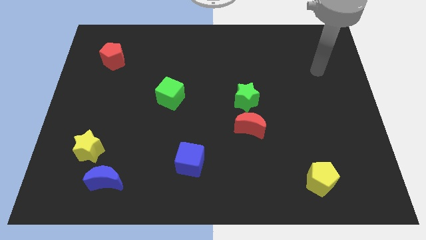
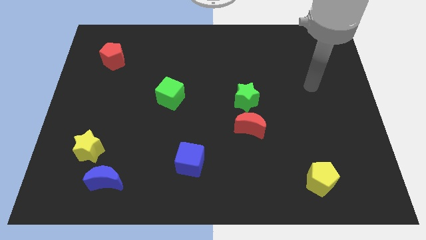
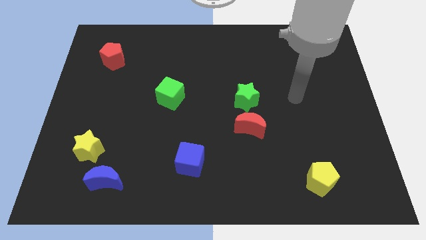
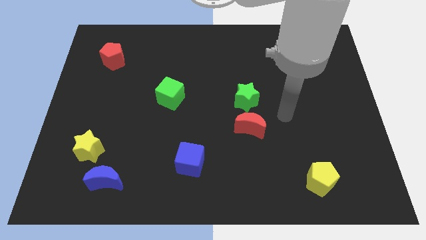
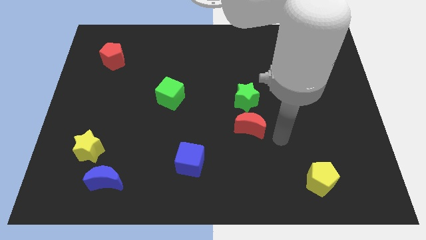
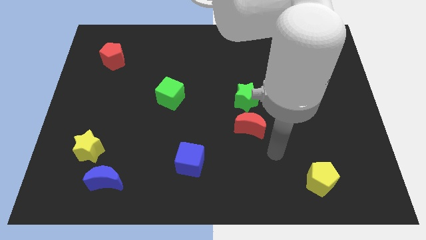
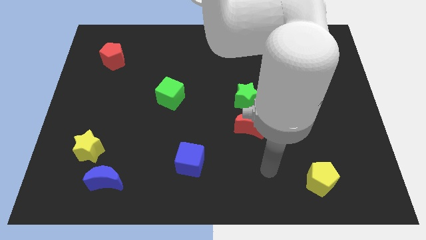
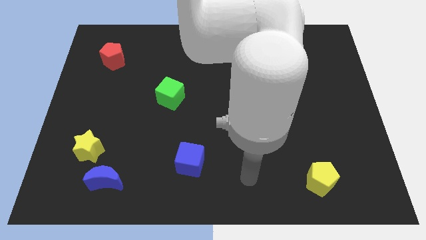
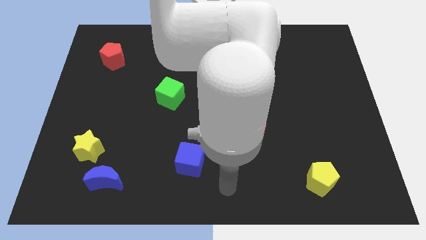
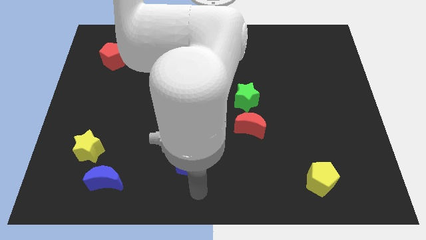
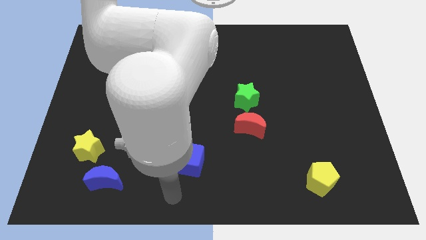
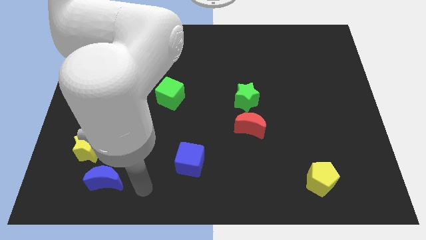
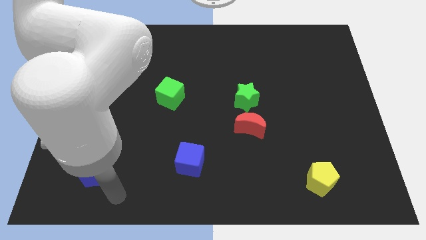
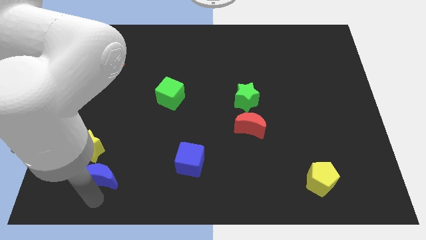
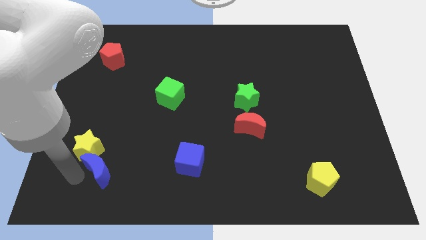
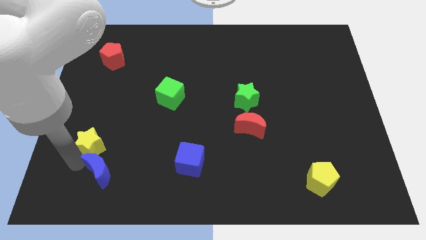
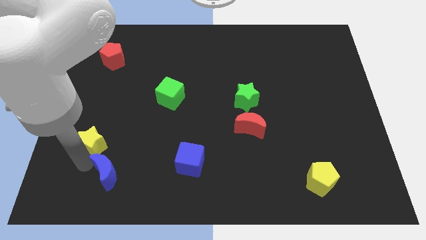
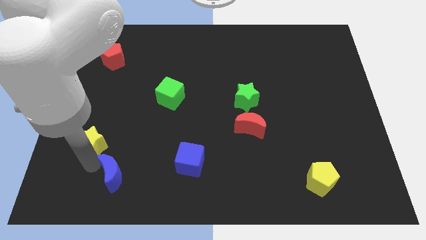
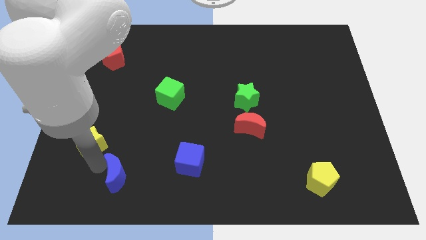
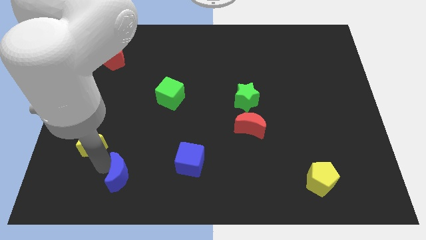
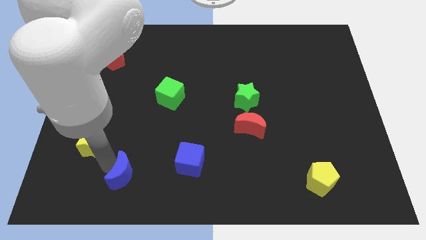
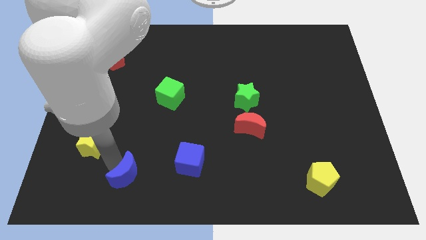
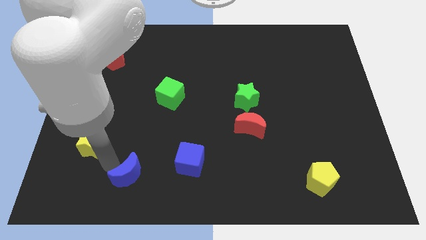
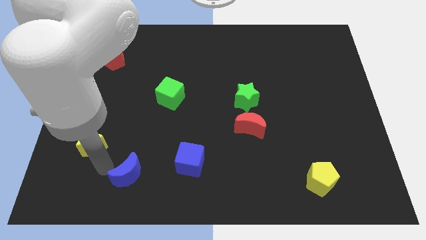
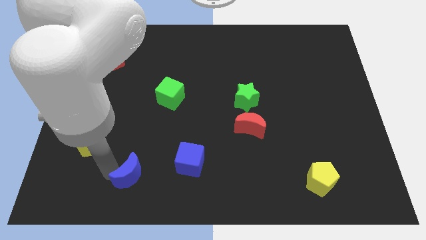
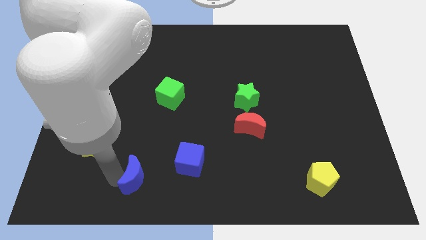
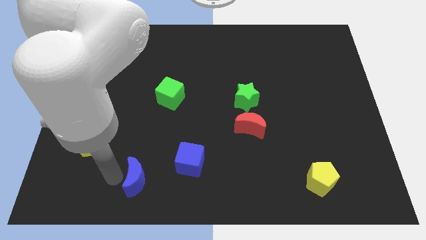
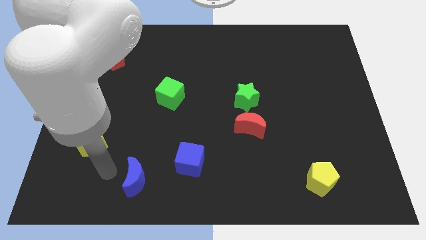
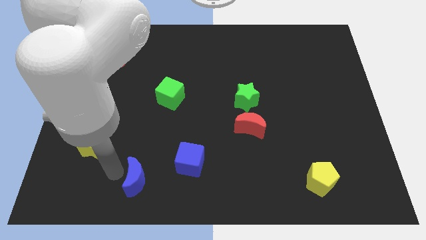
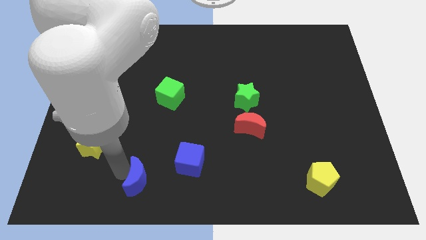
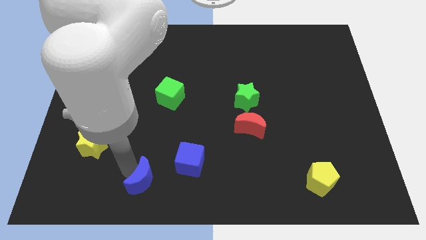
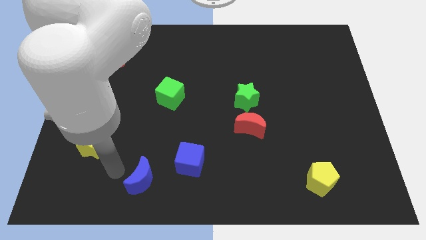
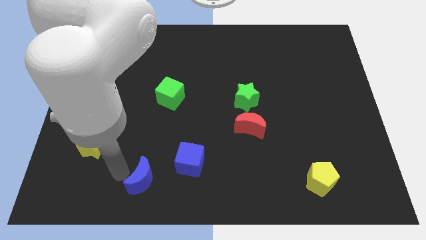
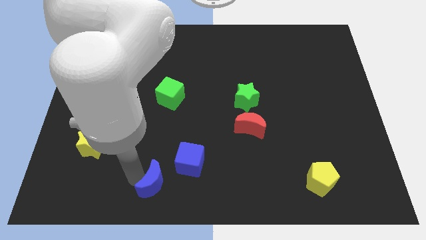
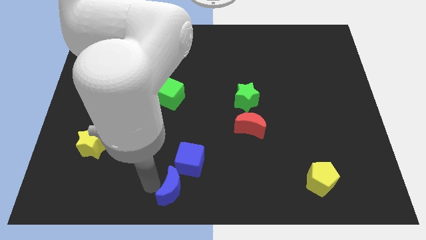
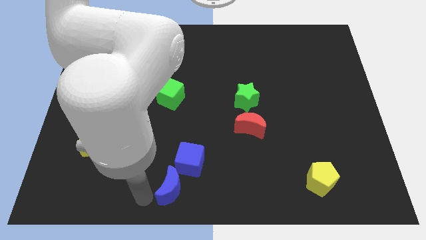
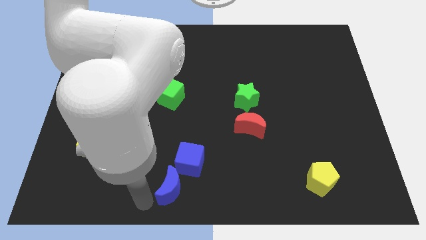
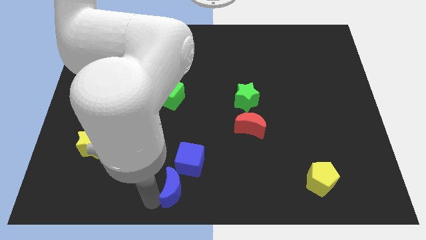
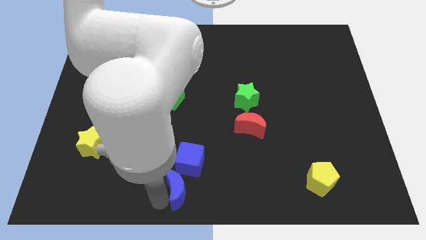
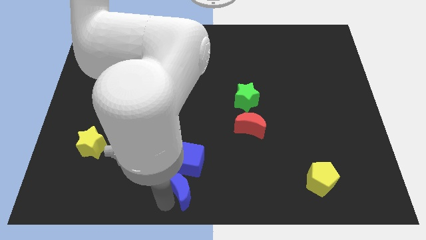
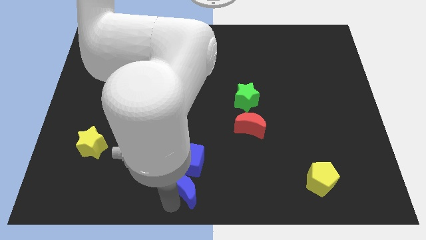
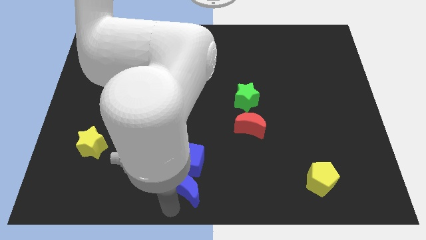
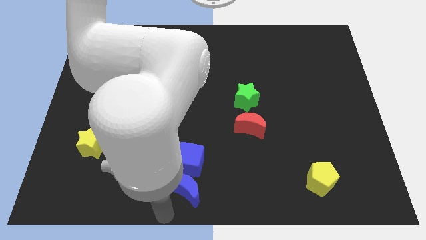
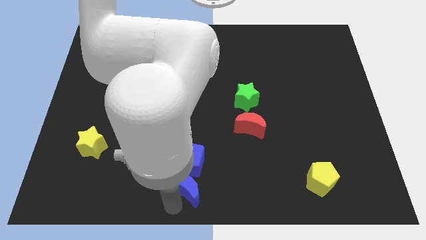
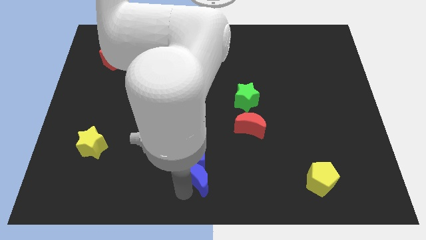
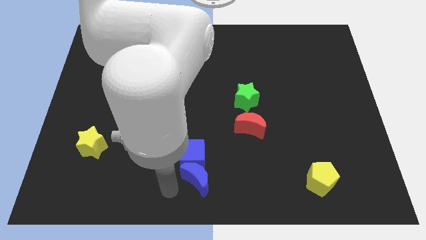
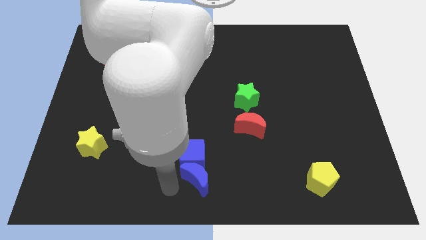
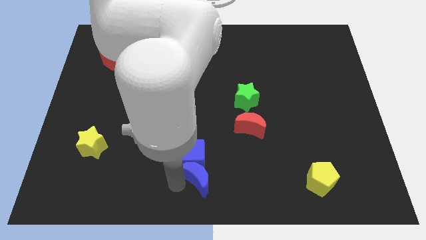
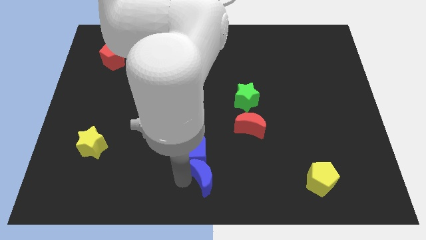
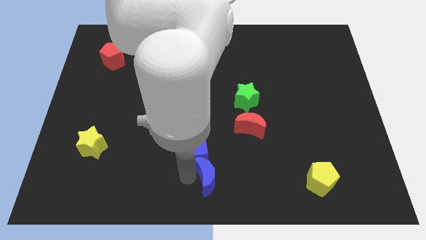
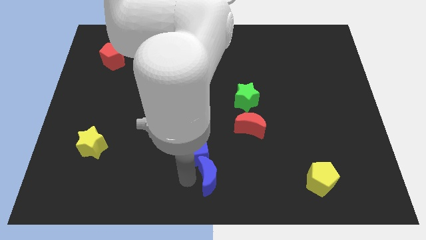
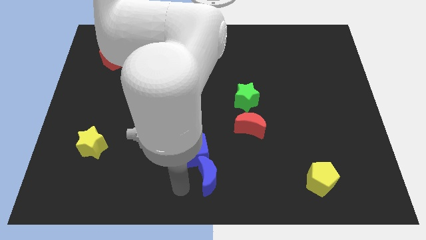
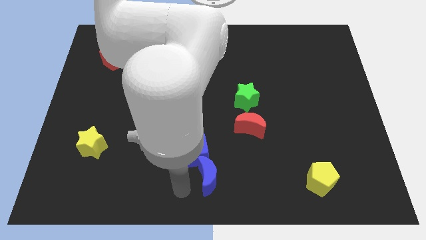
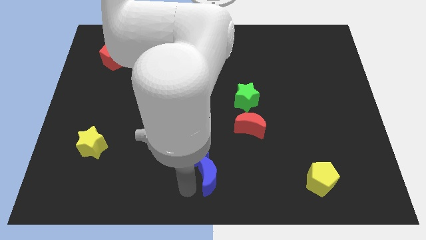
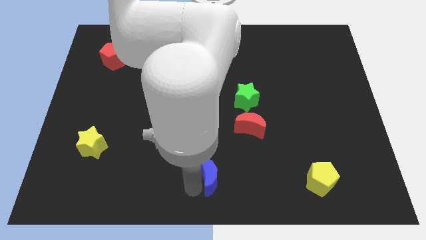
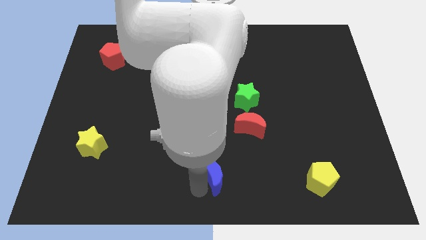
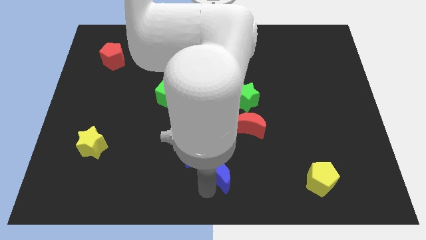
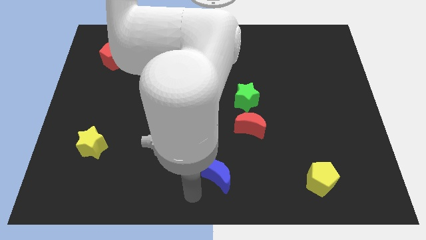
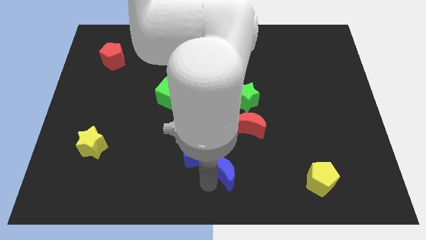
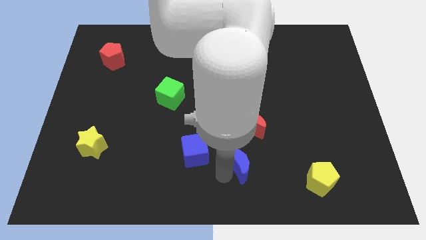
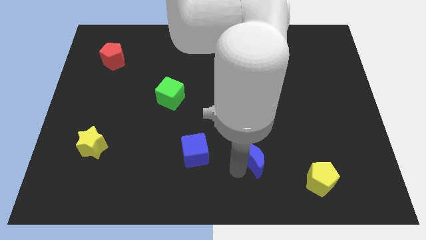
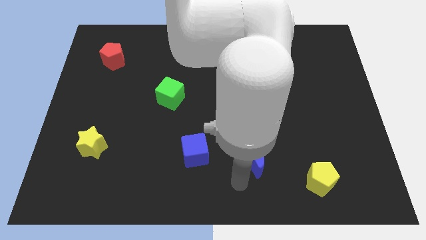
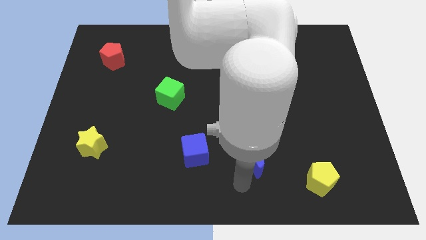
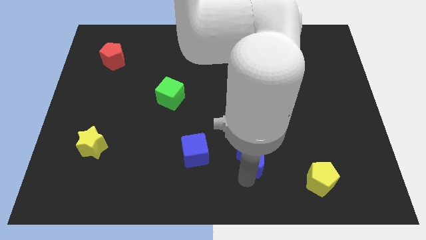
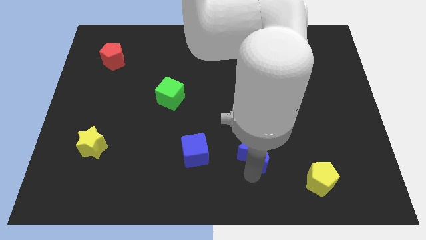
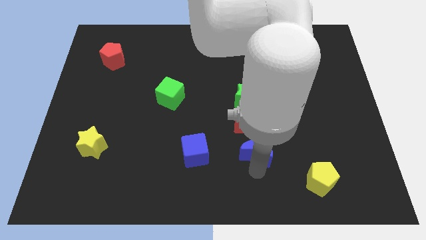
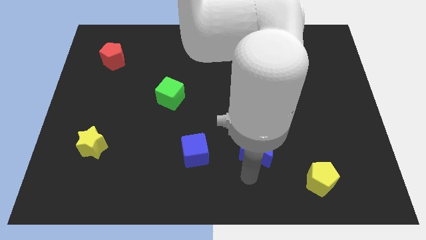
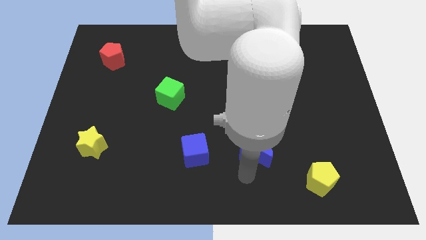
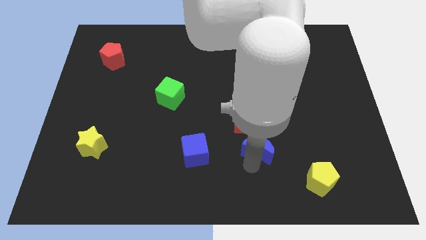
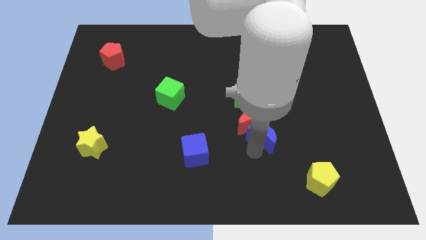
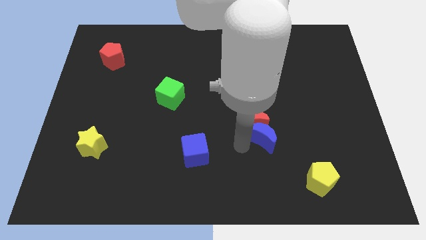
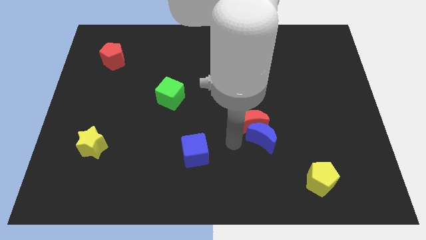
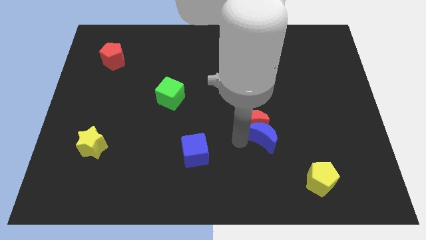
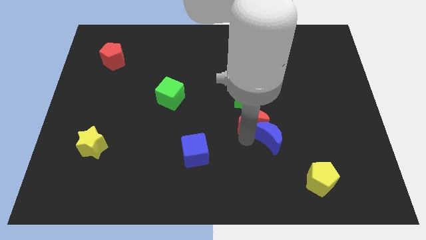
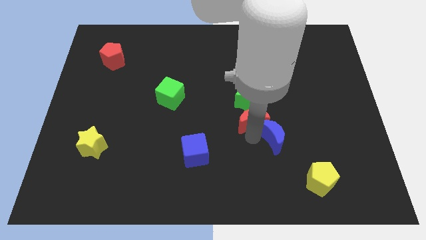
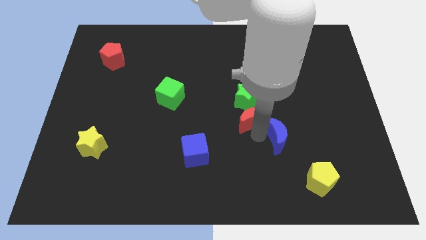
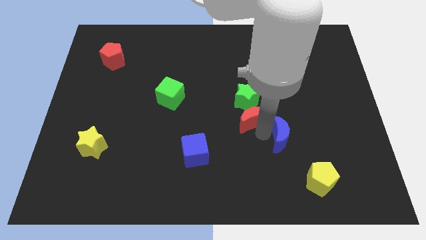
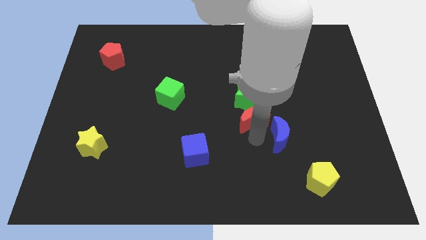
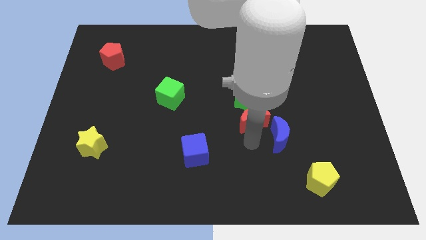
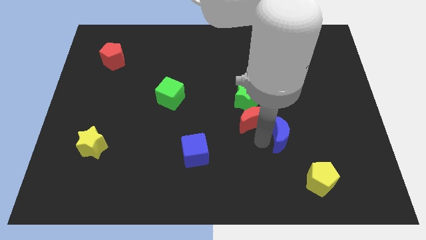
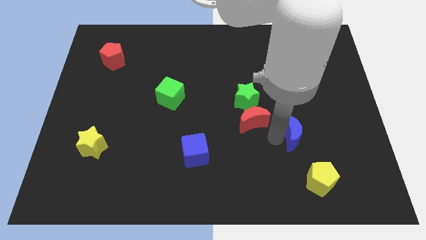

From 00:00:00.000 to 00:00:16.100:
slide the blue moon to the top of the yellow pentagon
